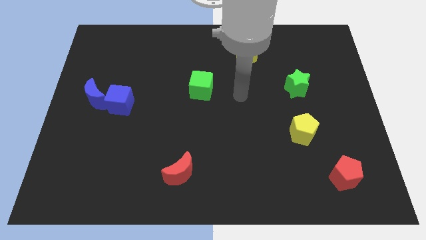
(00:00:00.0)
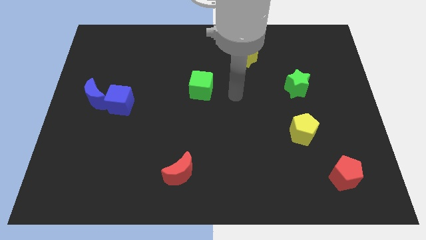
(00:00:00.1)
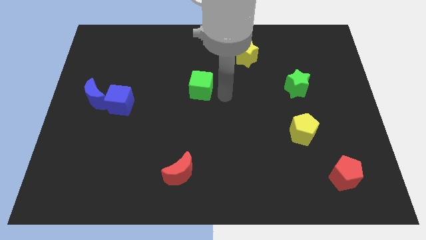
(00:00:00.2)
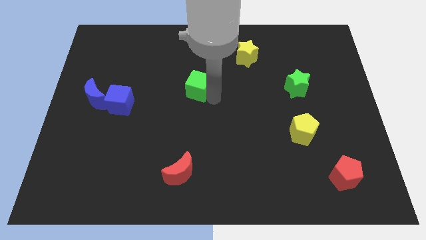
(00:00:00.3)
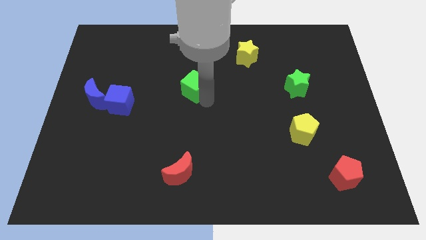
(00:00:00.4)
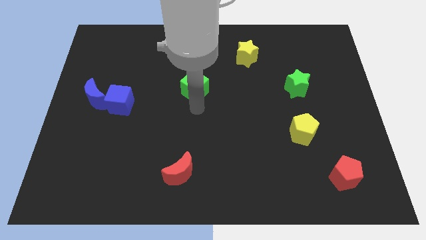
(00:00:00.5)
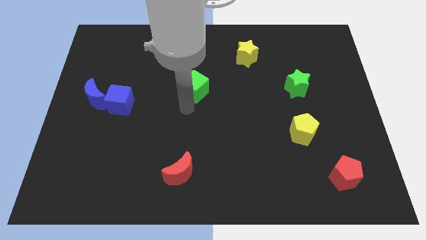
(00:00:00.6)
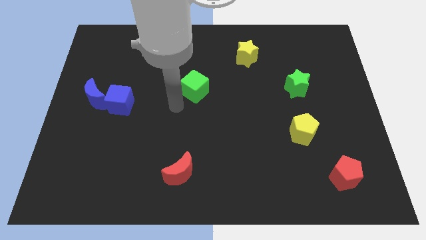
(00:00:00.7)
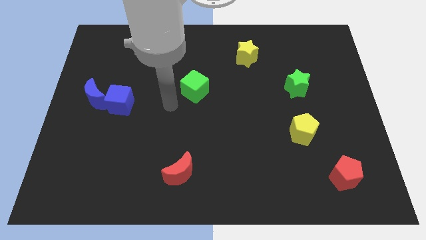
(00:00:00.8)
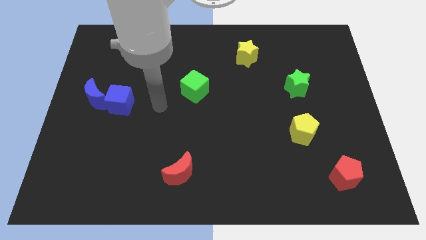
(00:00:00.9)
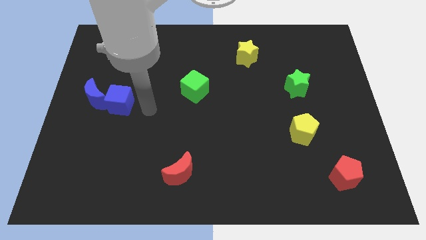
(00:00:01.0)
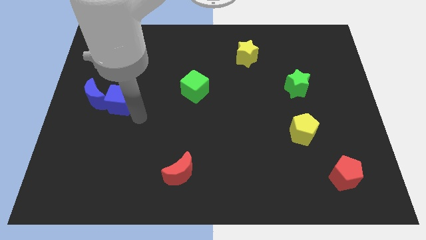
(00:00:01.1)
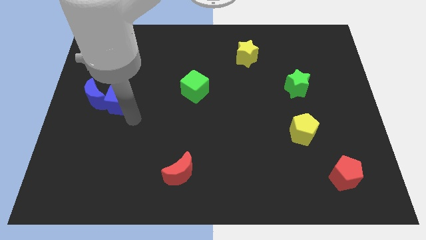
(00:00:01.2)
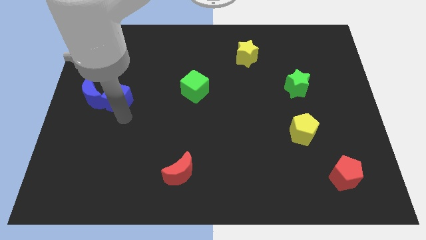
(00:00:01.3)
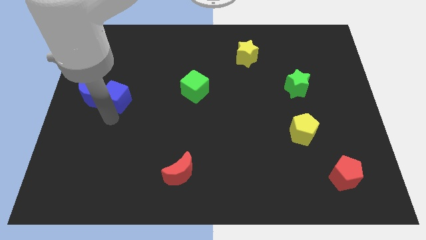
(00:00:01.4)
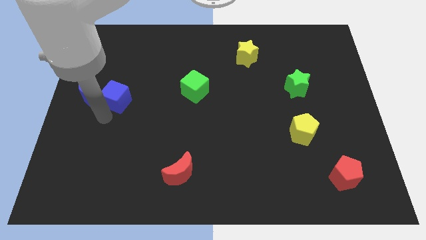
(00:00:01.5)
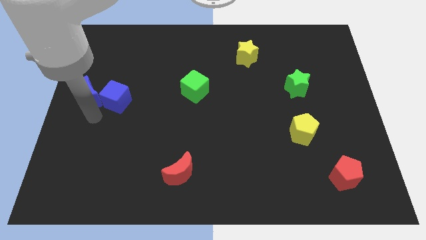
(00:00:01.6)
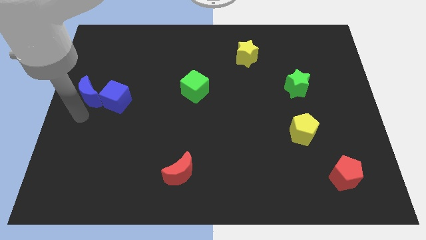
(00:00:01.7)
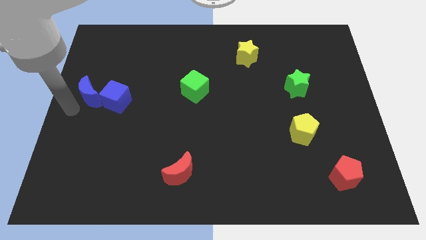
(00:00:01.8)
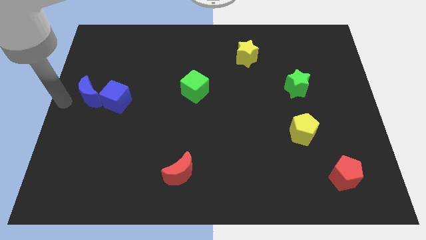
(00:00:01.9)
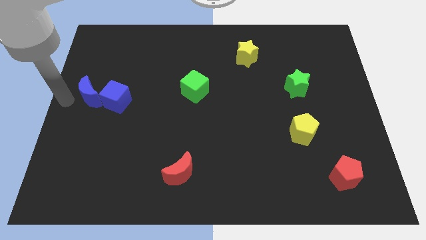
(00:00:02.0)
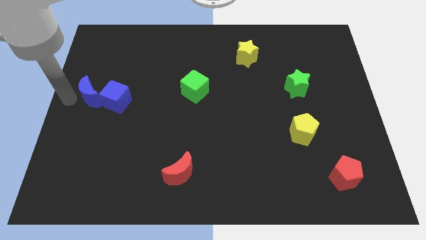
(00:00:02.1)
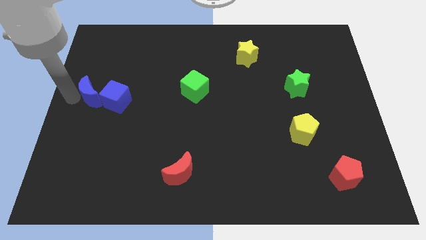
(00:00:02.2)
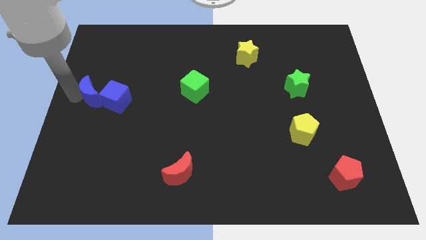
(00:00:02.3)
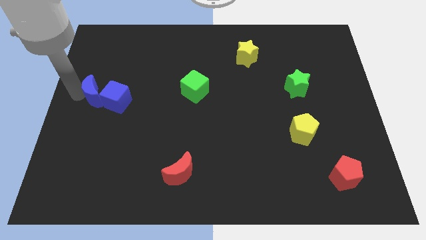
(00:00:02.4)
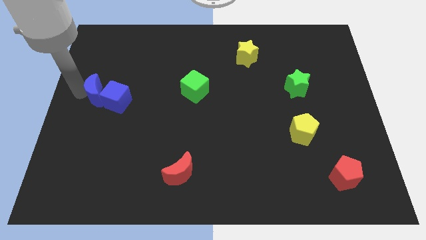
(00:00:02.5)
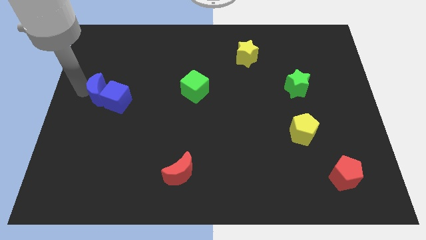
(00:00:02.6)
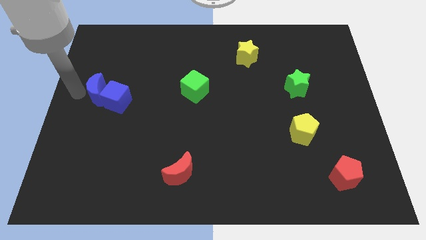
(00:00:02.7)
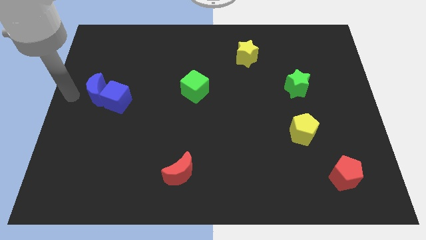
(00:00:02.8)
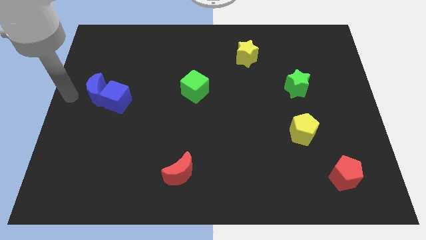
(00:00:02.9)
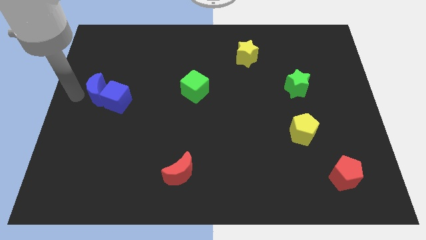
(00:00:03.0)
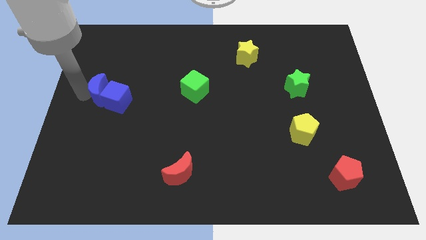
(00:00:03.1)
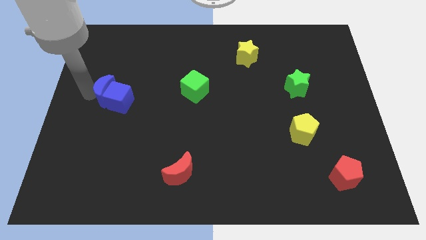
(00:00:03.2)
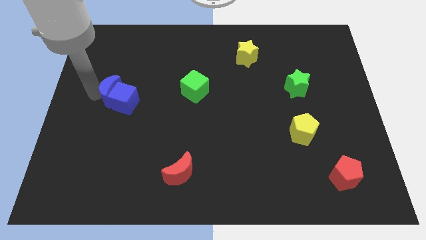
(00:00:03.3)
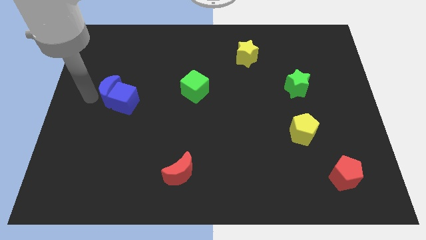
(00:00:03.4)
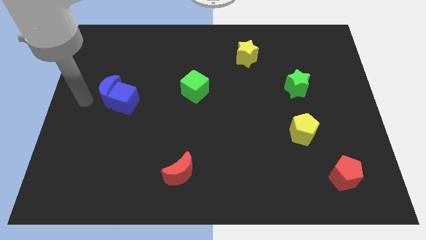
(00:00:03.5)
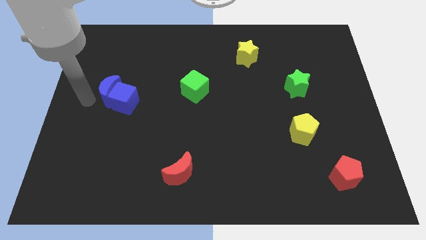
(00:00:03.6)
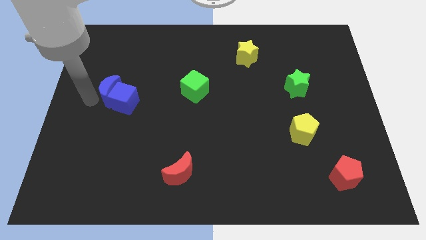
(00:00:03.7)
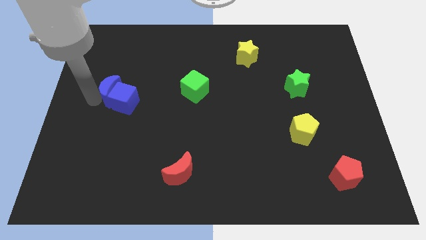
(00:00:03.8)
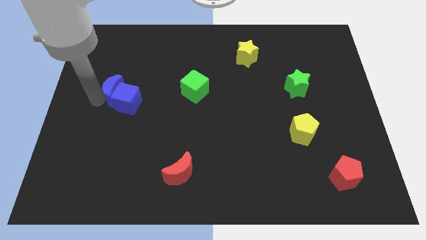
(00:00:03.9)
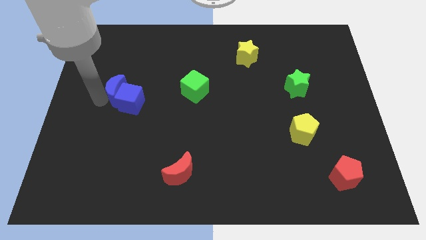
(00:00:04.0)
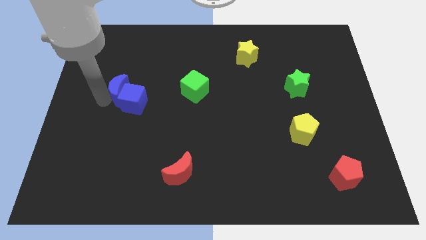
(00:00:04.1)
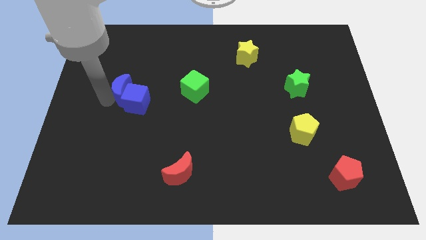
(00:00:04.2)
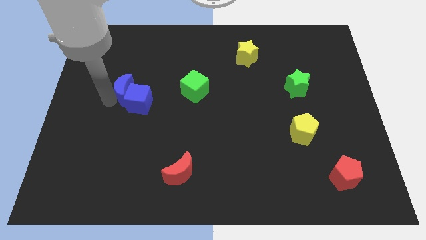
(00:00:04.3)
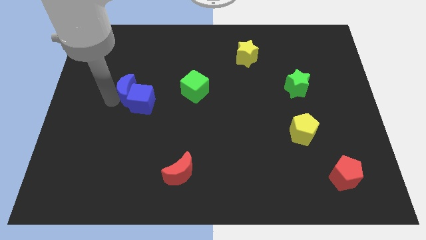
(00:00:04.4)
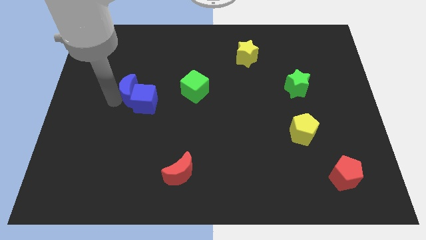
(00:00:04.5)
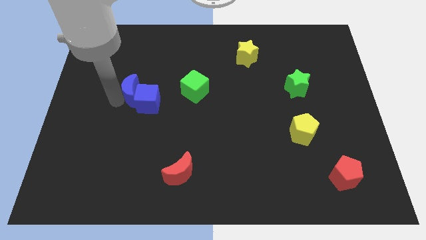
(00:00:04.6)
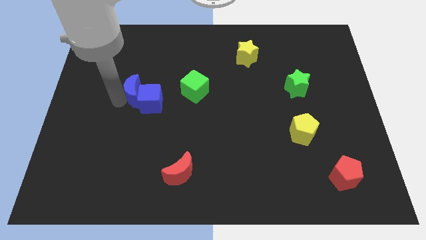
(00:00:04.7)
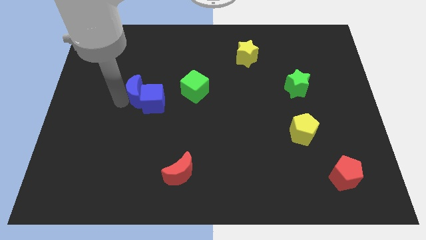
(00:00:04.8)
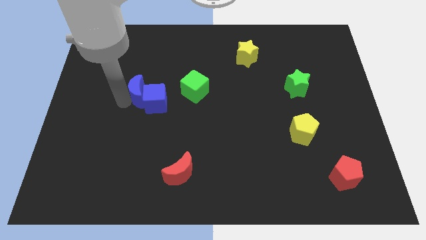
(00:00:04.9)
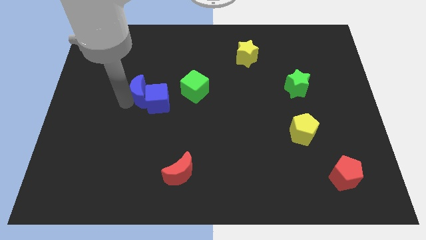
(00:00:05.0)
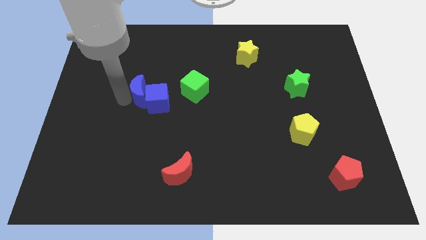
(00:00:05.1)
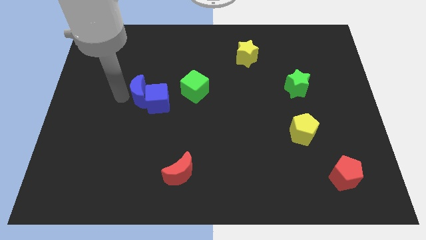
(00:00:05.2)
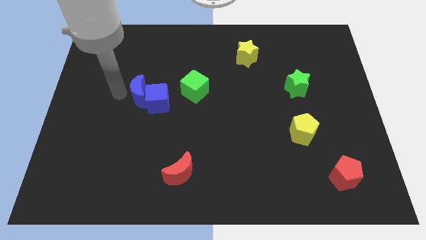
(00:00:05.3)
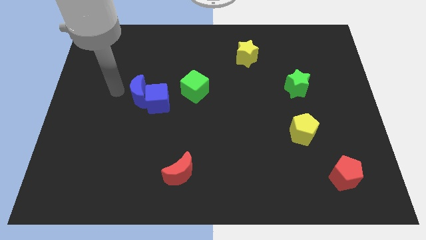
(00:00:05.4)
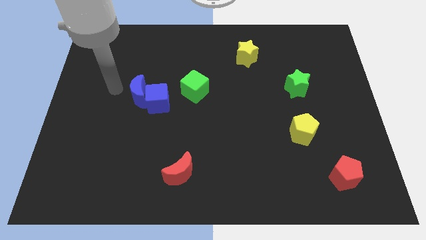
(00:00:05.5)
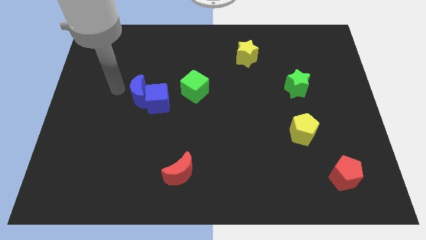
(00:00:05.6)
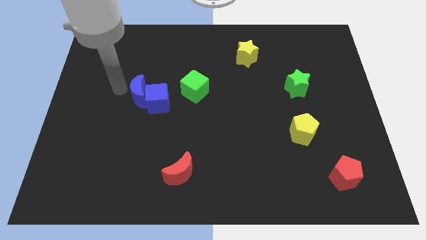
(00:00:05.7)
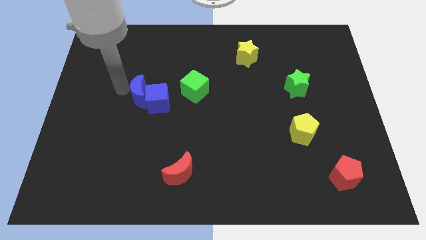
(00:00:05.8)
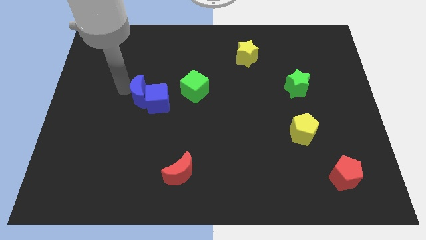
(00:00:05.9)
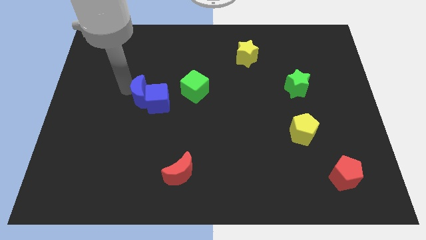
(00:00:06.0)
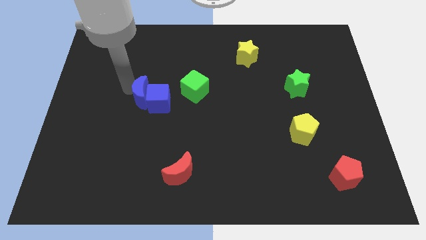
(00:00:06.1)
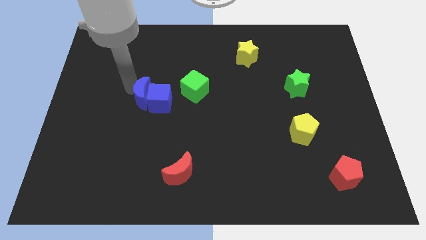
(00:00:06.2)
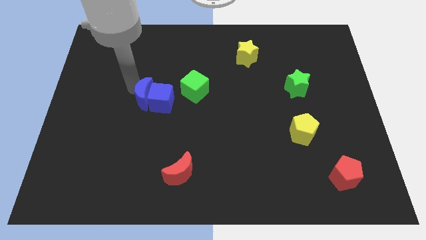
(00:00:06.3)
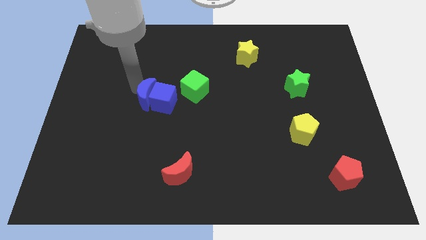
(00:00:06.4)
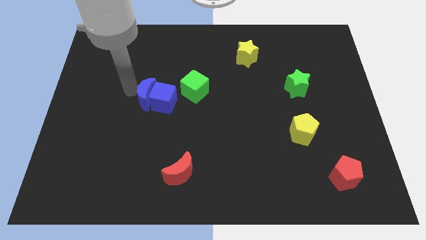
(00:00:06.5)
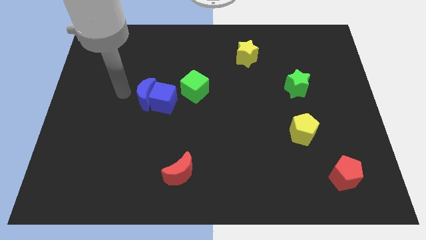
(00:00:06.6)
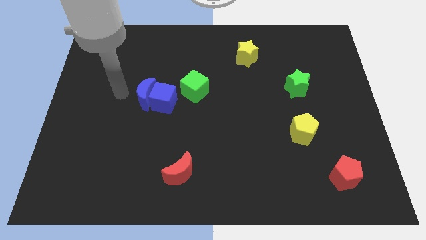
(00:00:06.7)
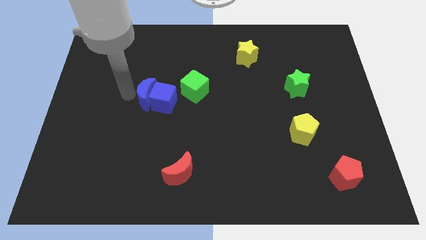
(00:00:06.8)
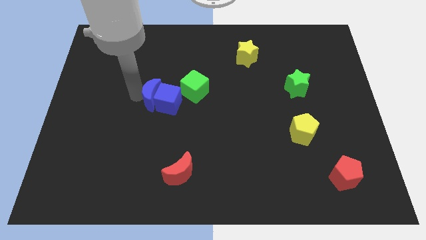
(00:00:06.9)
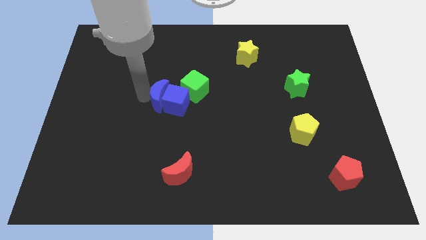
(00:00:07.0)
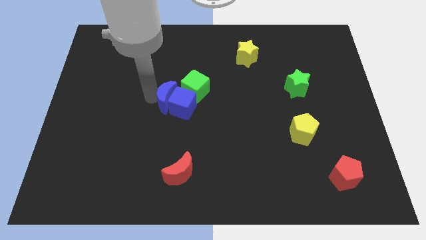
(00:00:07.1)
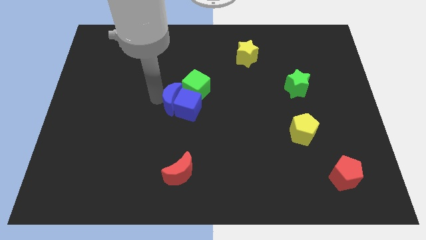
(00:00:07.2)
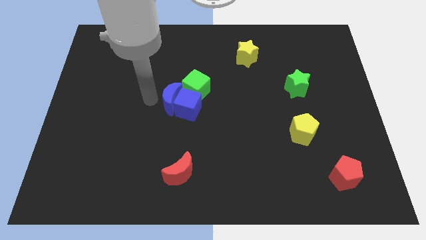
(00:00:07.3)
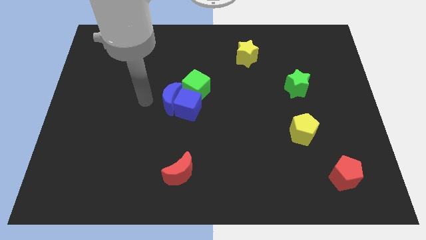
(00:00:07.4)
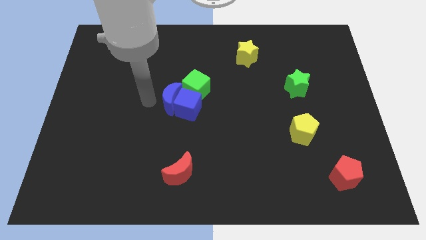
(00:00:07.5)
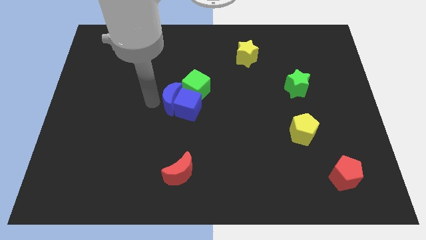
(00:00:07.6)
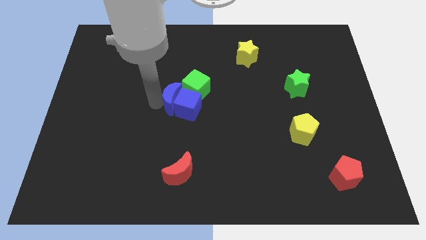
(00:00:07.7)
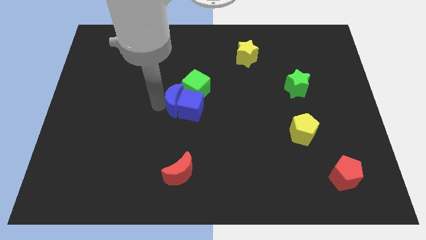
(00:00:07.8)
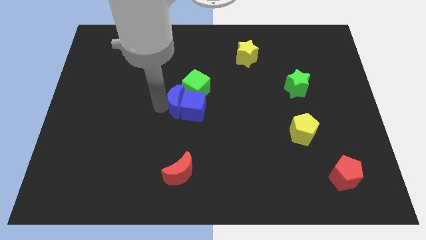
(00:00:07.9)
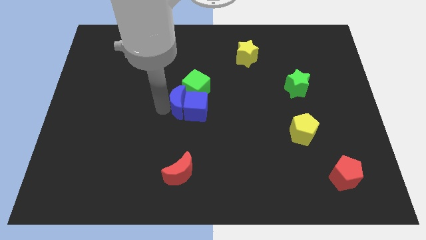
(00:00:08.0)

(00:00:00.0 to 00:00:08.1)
move the blue moon right
